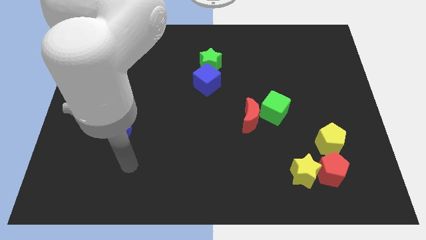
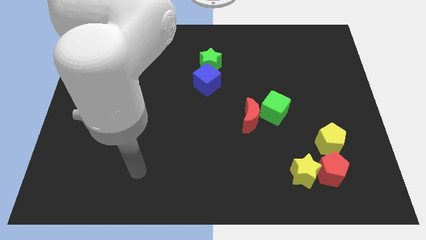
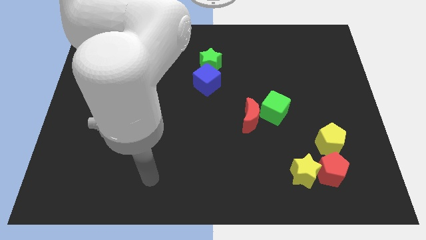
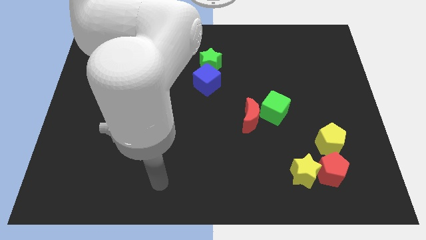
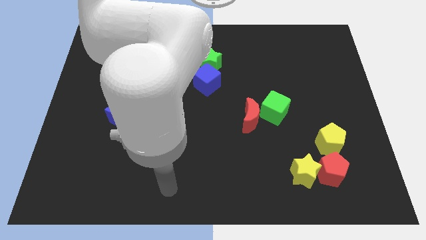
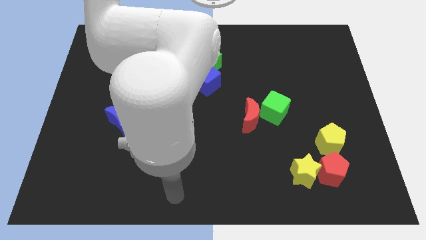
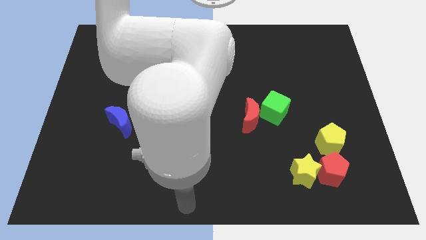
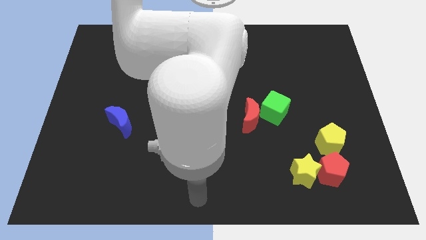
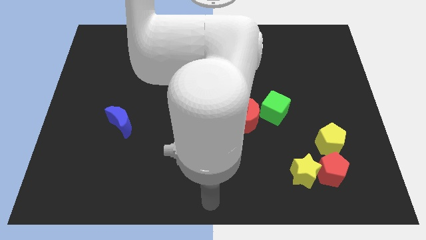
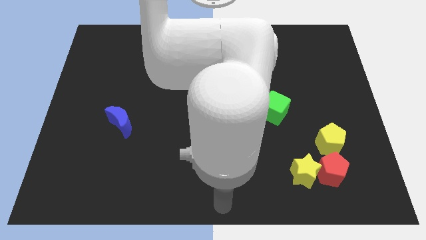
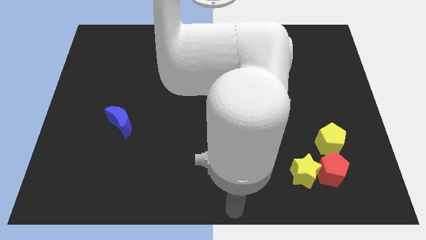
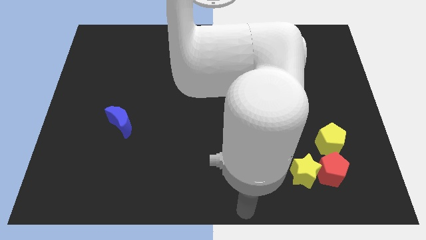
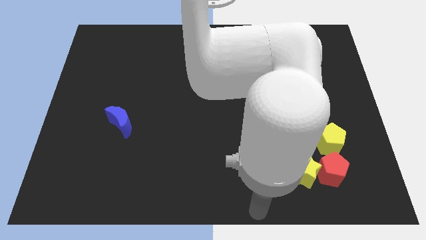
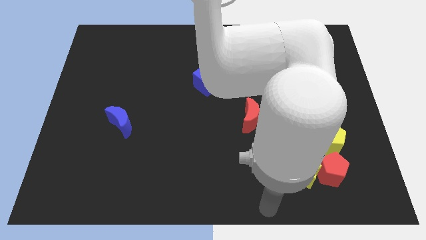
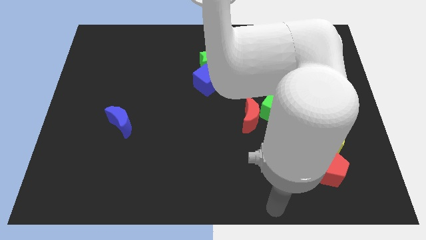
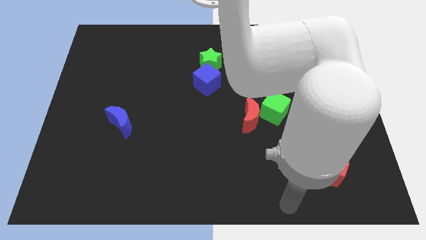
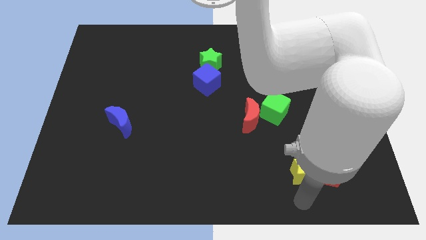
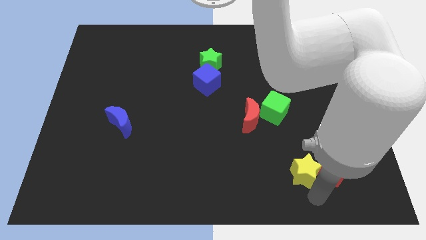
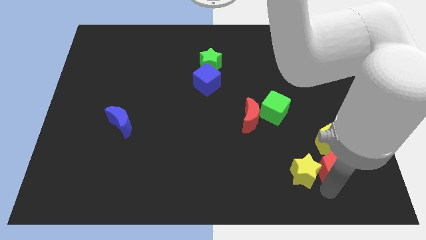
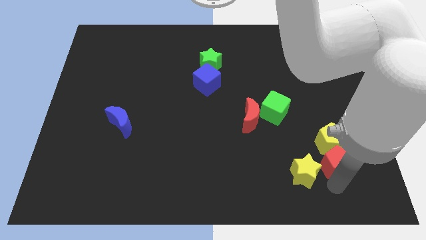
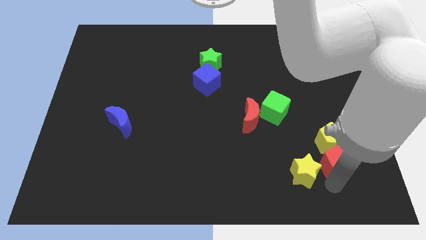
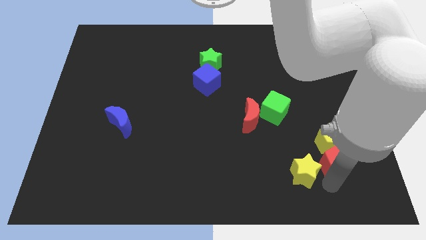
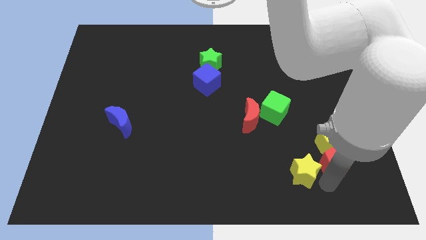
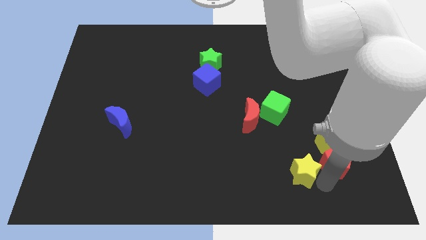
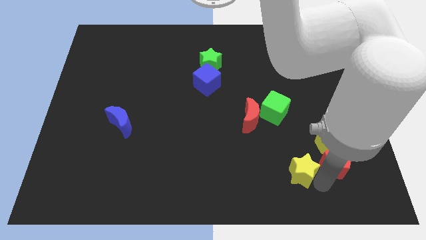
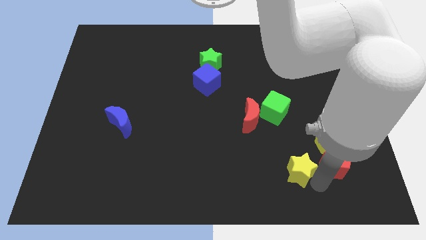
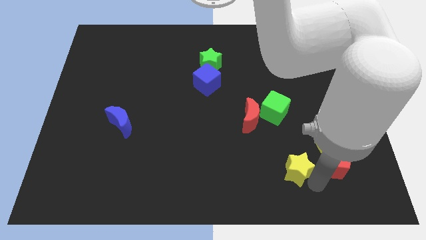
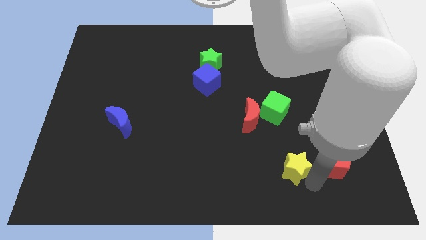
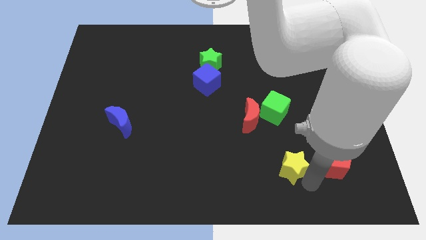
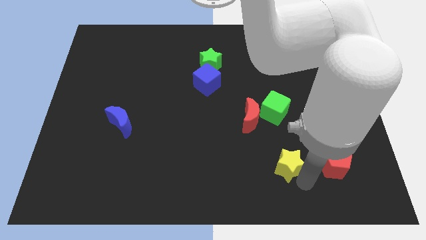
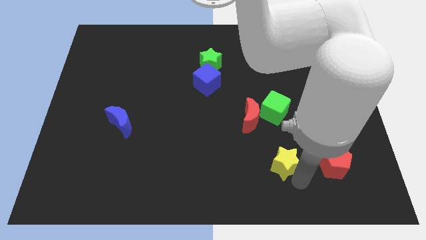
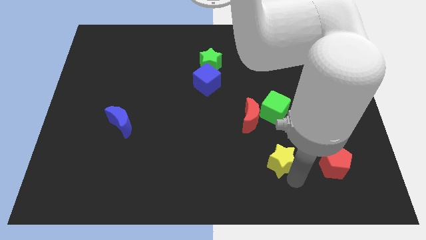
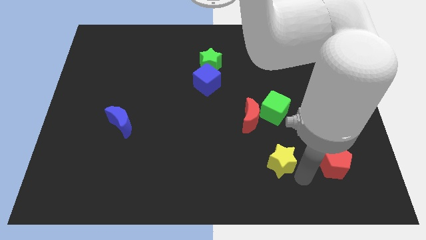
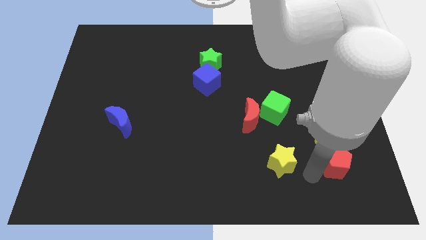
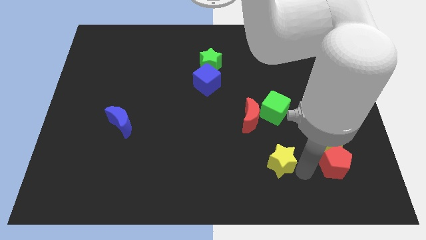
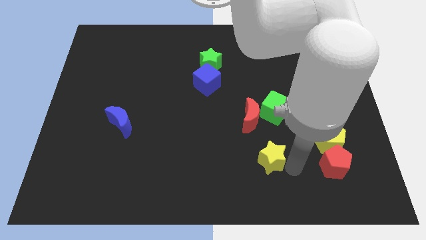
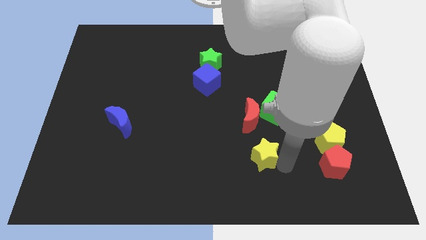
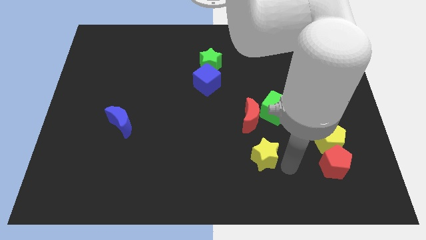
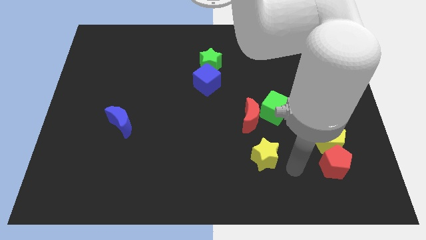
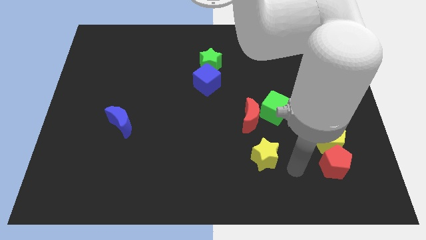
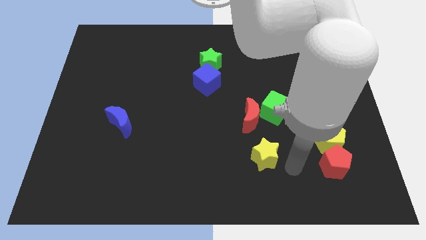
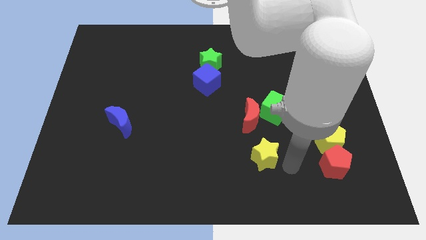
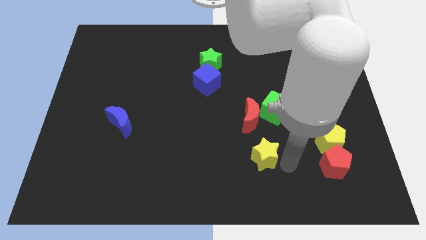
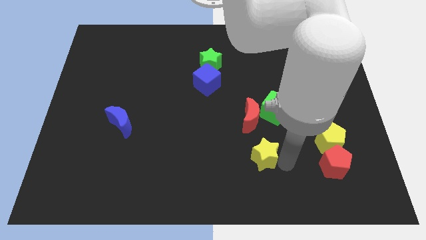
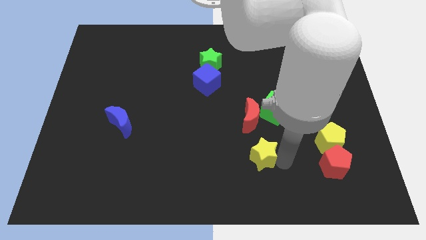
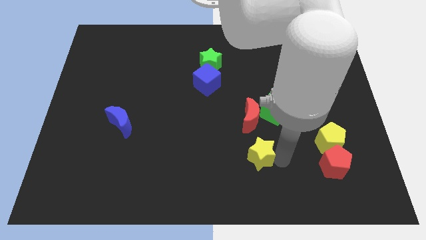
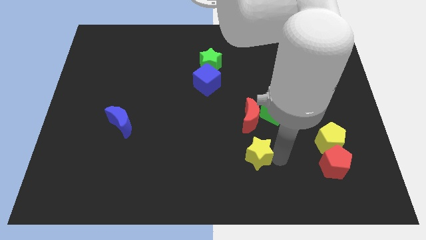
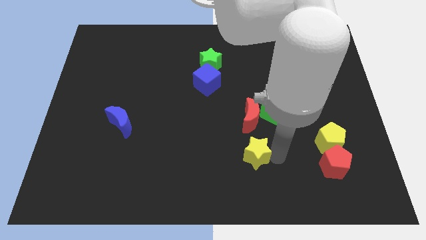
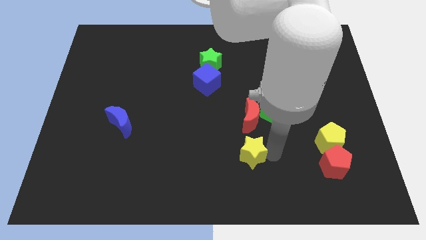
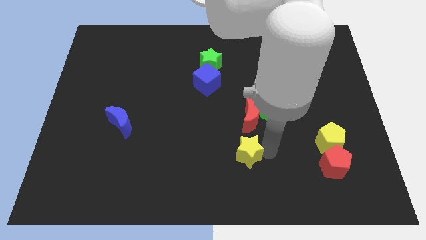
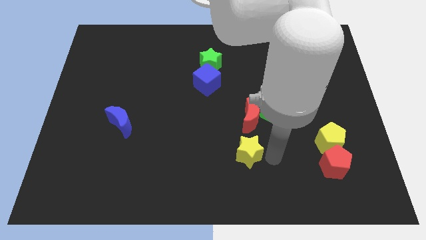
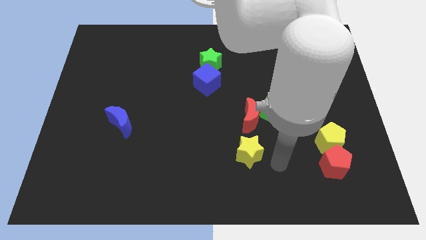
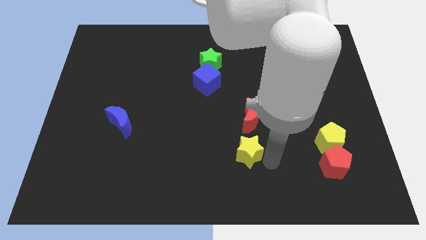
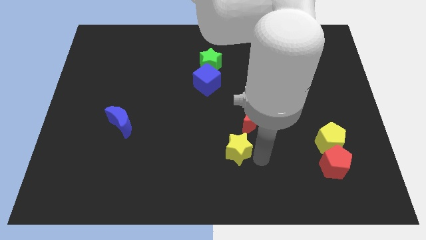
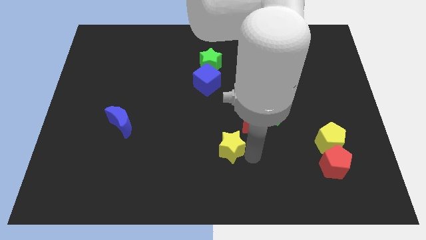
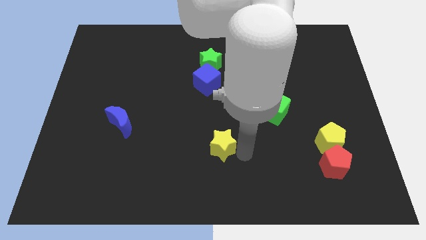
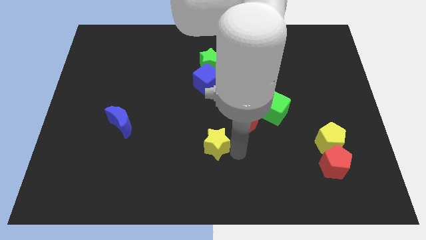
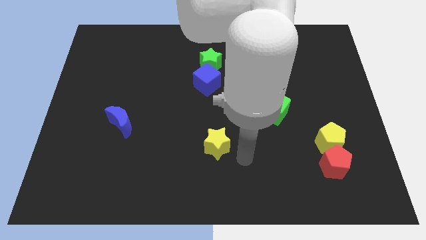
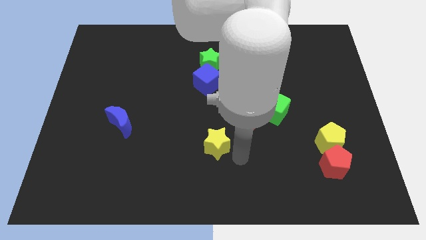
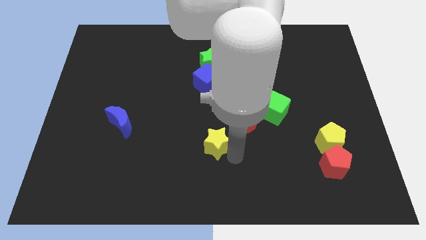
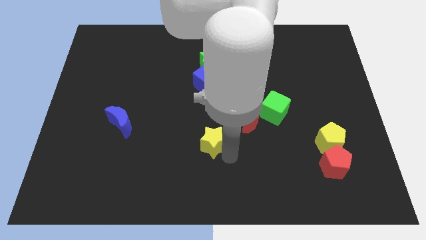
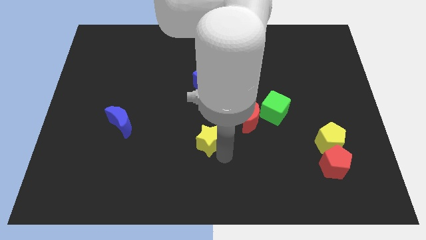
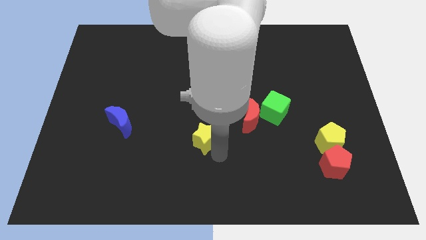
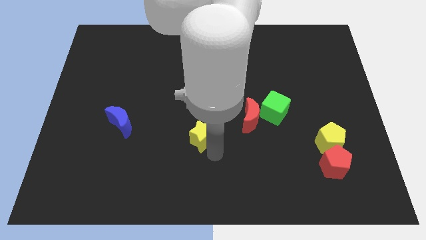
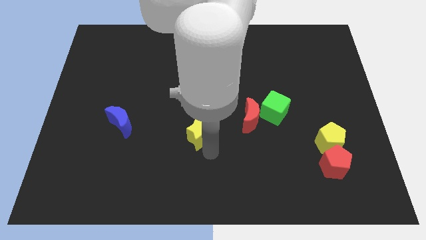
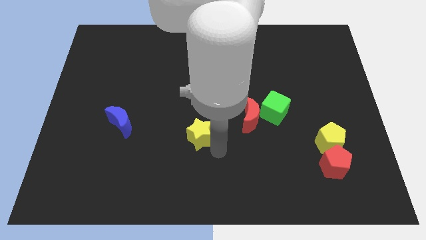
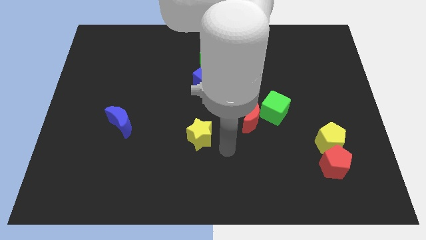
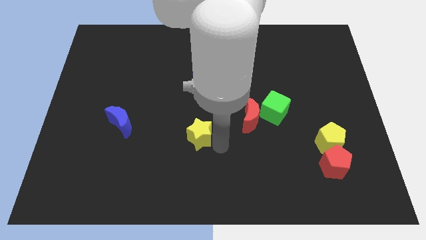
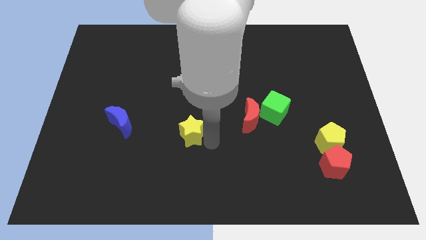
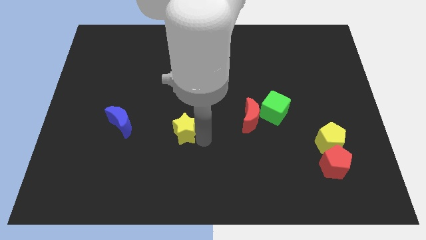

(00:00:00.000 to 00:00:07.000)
slide the yellow star to the right side of the blue moon
